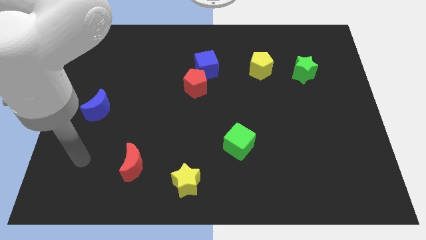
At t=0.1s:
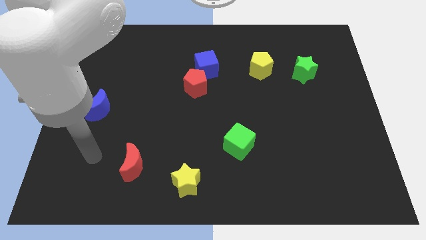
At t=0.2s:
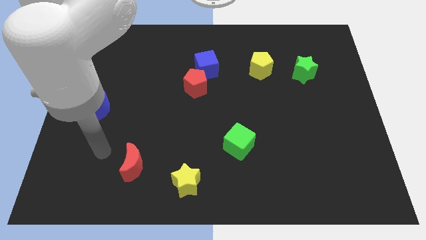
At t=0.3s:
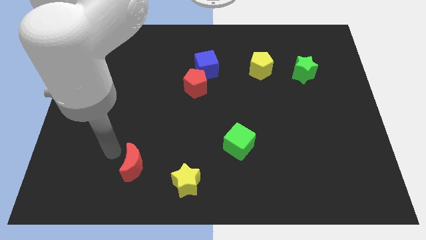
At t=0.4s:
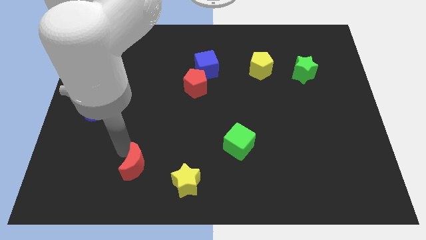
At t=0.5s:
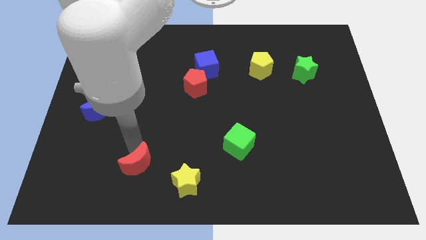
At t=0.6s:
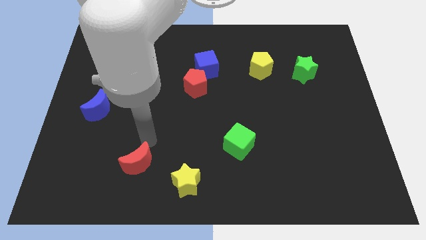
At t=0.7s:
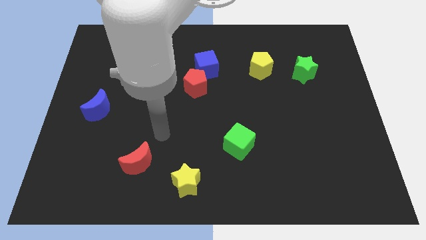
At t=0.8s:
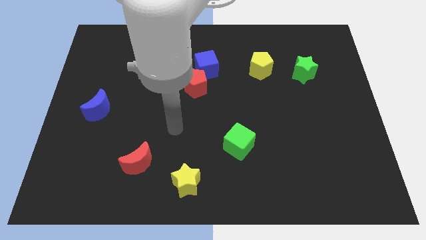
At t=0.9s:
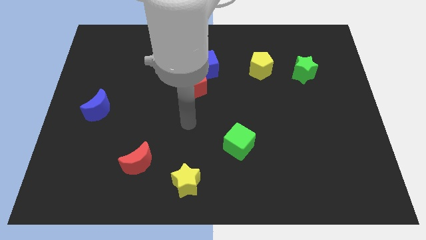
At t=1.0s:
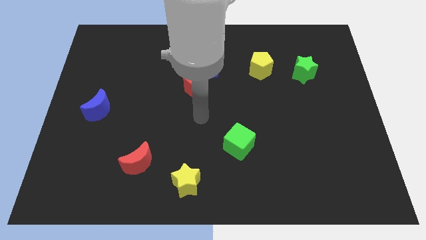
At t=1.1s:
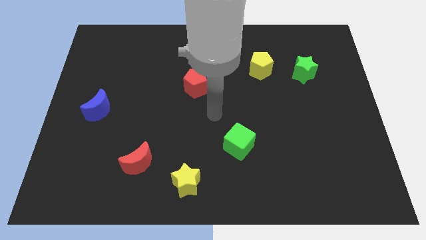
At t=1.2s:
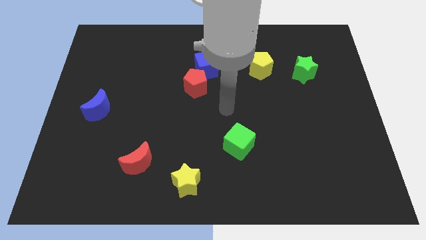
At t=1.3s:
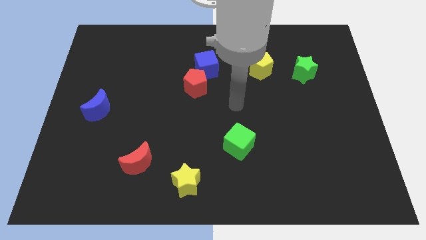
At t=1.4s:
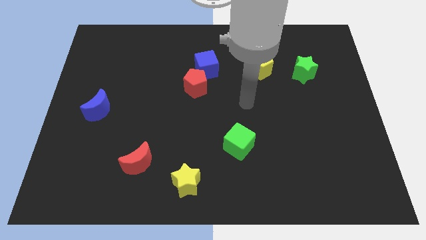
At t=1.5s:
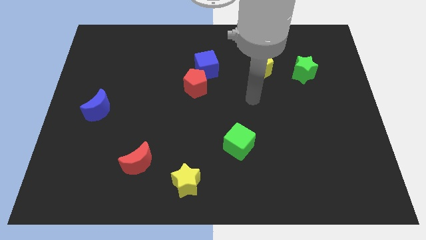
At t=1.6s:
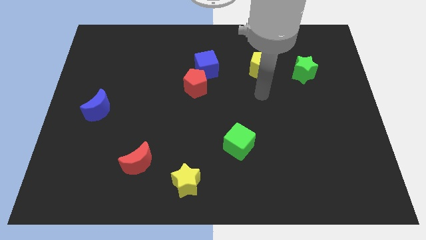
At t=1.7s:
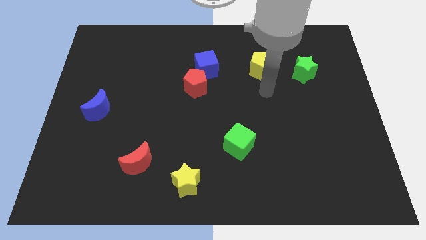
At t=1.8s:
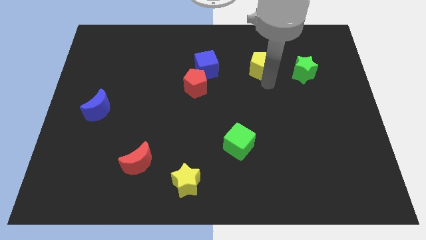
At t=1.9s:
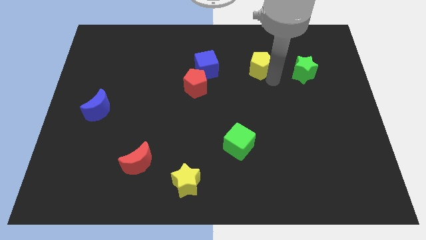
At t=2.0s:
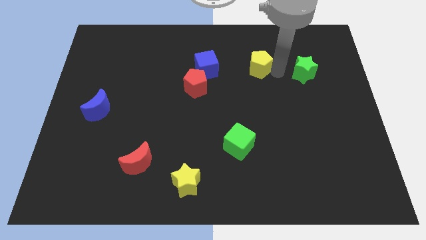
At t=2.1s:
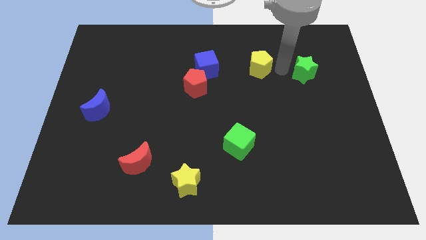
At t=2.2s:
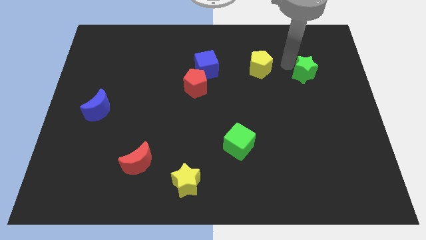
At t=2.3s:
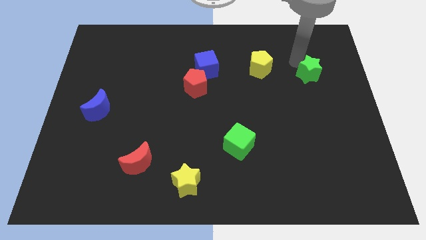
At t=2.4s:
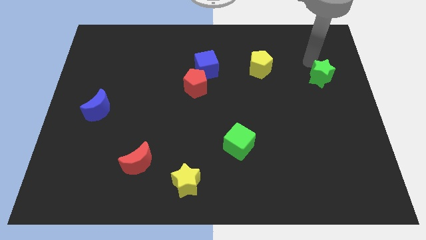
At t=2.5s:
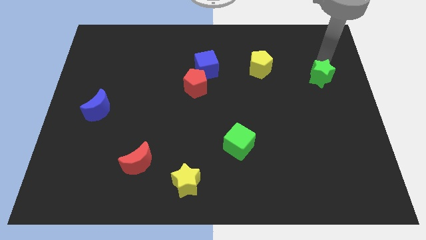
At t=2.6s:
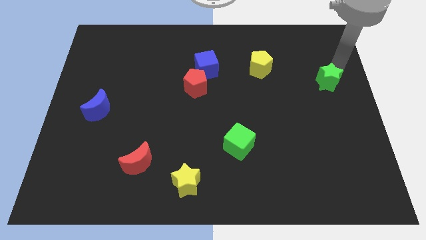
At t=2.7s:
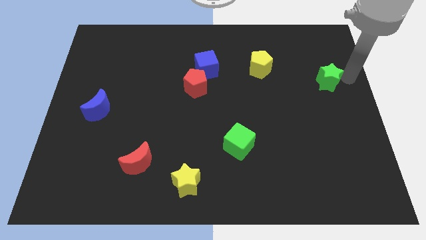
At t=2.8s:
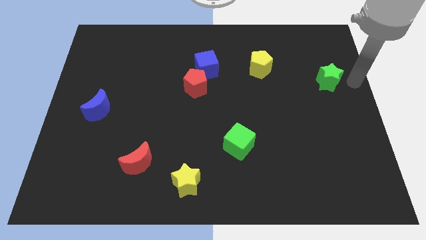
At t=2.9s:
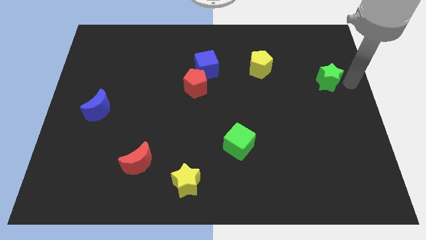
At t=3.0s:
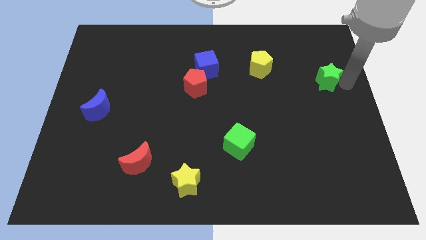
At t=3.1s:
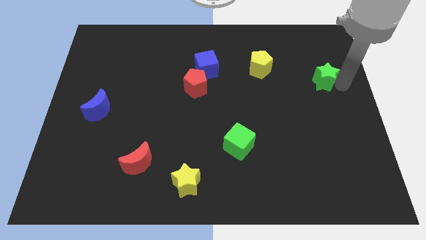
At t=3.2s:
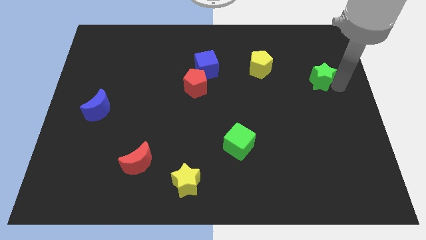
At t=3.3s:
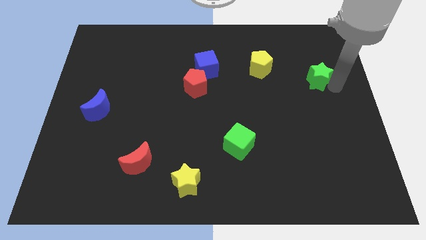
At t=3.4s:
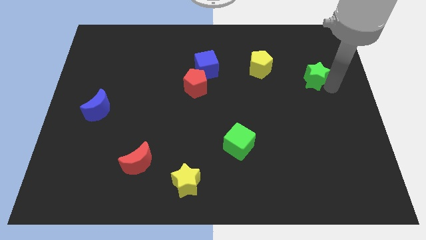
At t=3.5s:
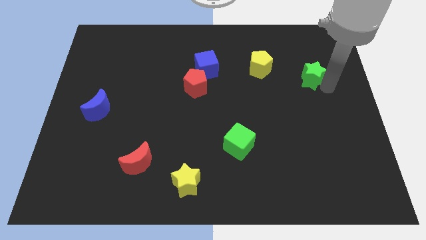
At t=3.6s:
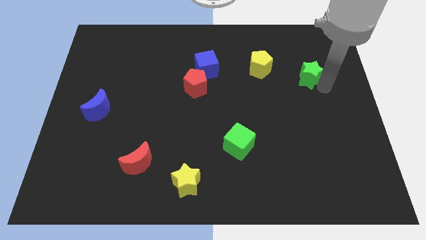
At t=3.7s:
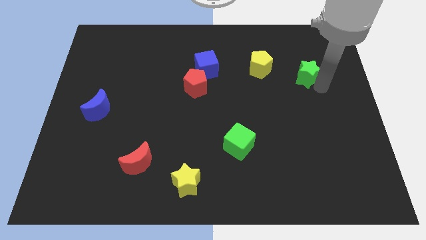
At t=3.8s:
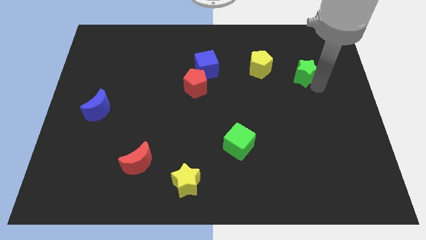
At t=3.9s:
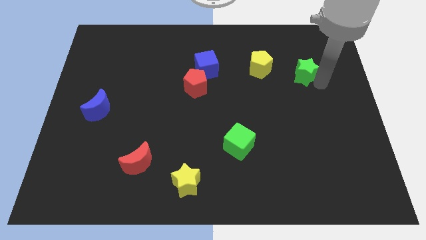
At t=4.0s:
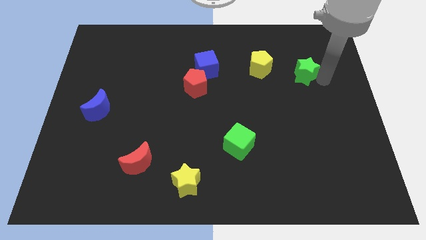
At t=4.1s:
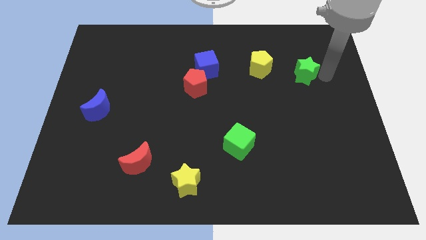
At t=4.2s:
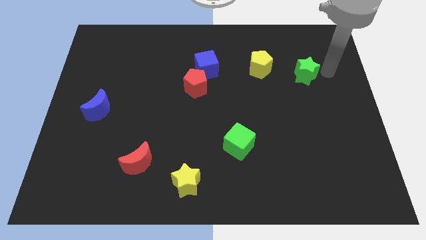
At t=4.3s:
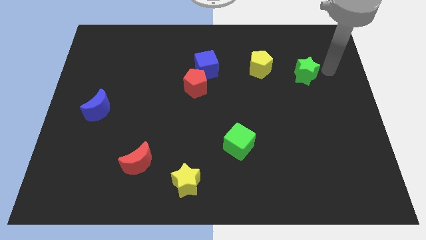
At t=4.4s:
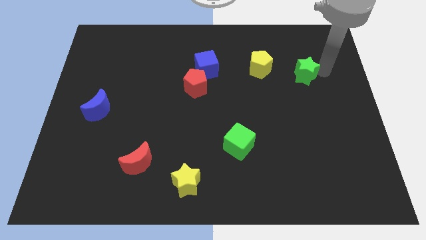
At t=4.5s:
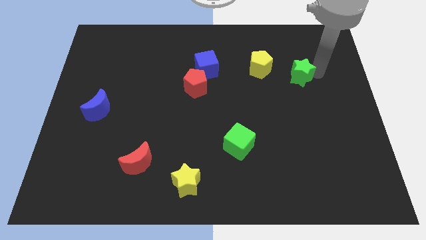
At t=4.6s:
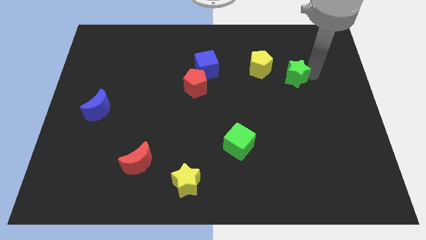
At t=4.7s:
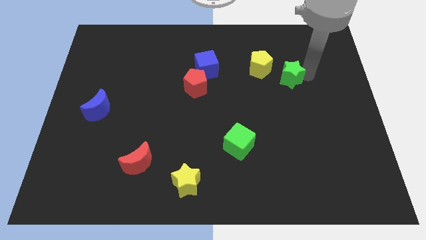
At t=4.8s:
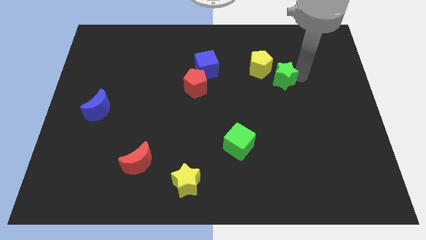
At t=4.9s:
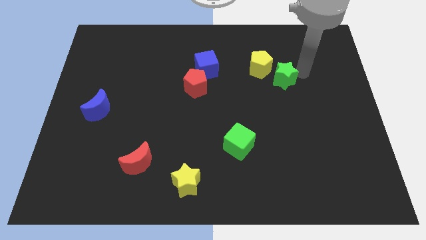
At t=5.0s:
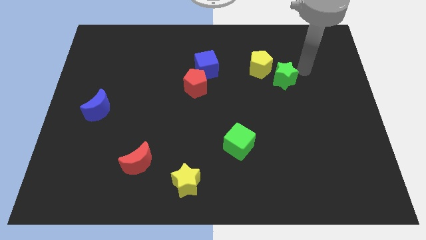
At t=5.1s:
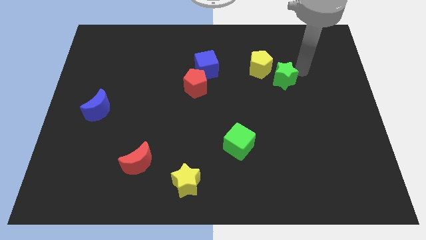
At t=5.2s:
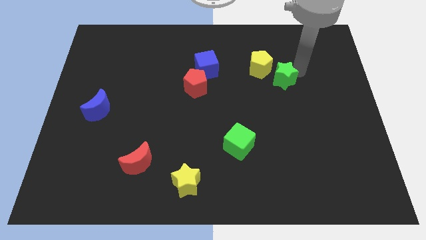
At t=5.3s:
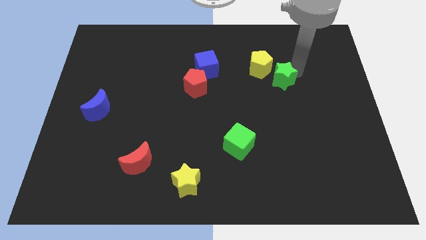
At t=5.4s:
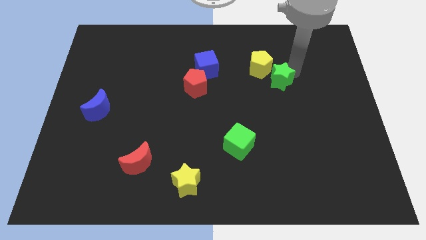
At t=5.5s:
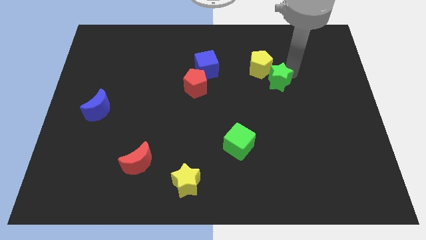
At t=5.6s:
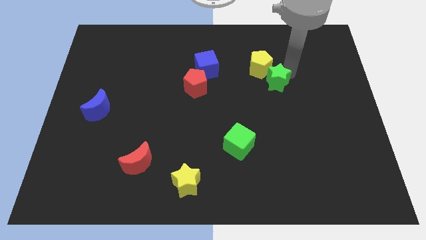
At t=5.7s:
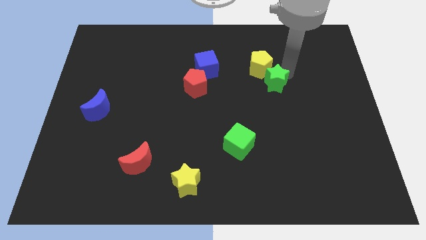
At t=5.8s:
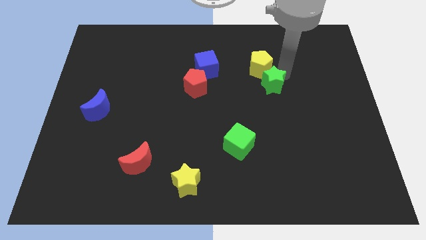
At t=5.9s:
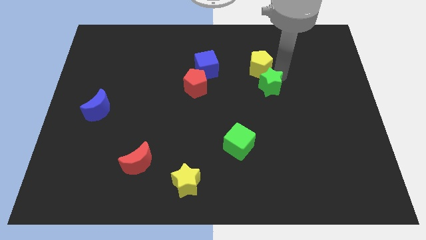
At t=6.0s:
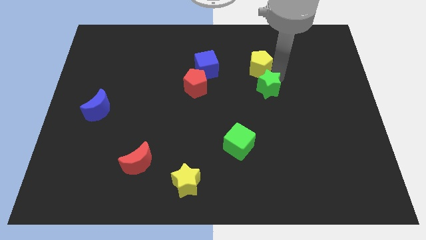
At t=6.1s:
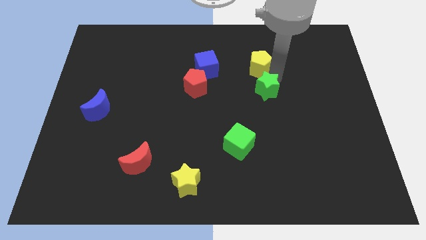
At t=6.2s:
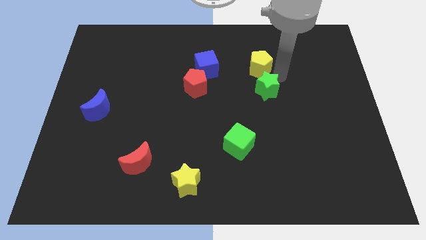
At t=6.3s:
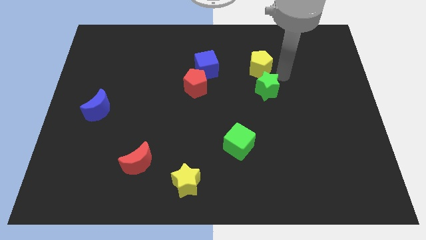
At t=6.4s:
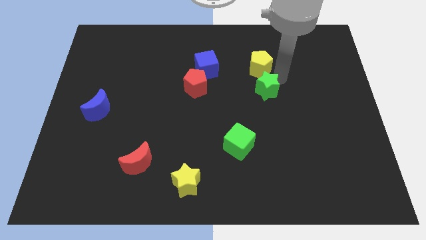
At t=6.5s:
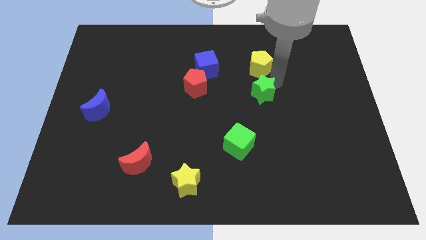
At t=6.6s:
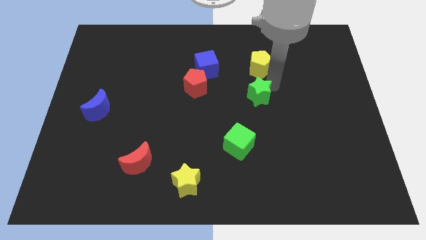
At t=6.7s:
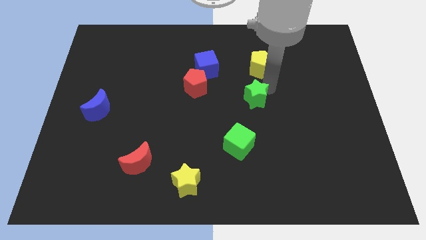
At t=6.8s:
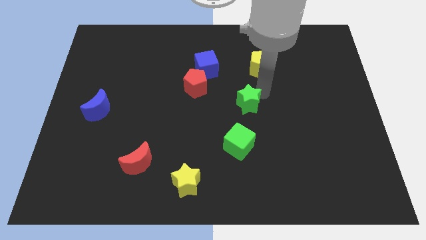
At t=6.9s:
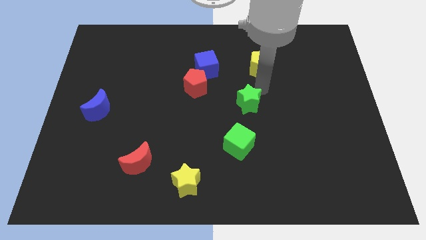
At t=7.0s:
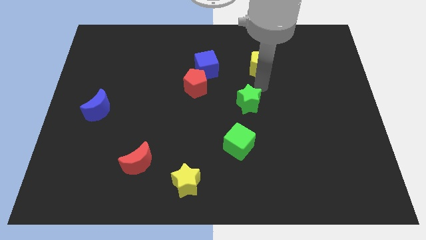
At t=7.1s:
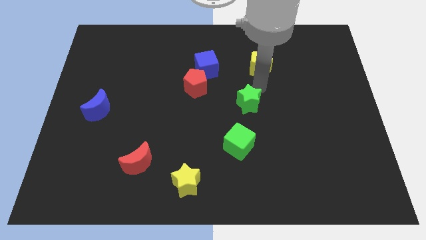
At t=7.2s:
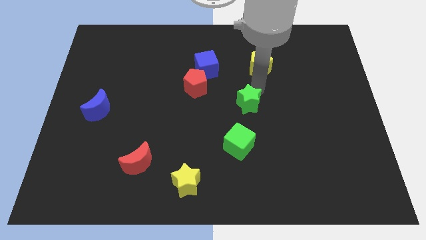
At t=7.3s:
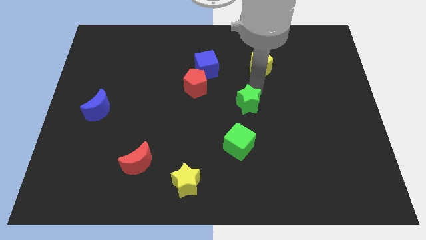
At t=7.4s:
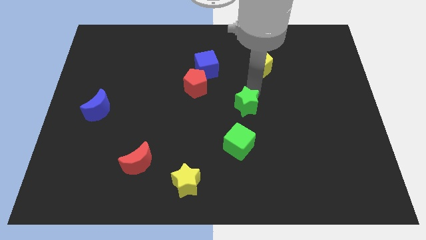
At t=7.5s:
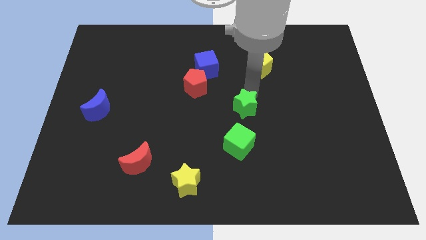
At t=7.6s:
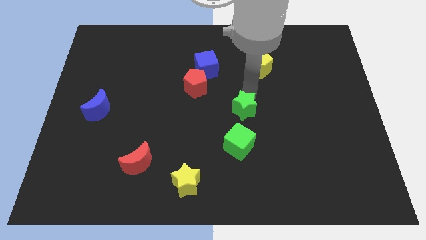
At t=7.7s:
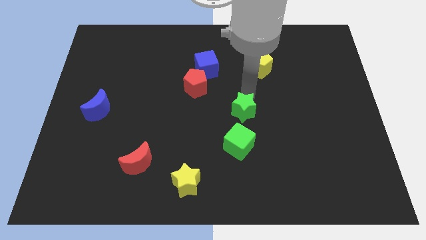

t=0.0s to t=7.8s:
push the green star diagonally downwards and left

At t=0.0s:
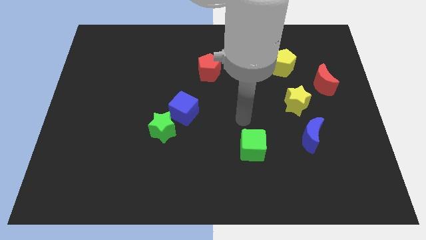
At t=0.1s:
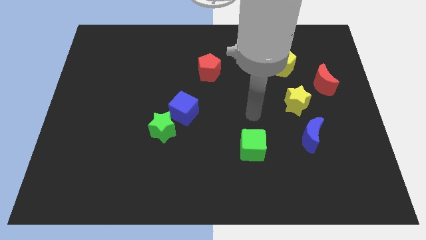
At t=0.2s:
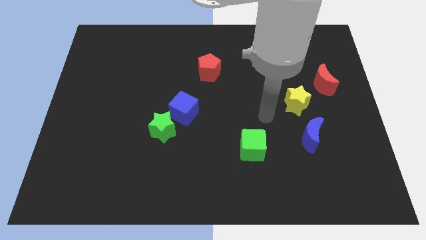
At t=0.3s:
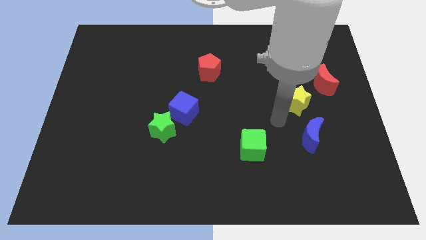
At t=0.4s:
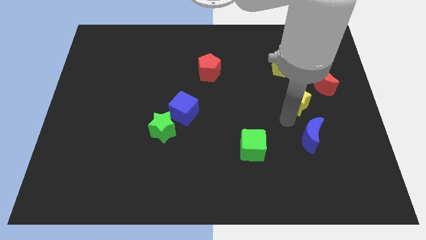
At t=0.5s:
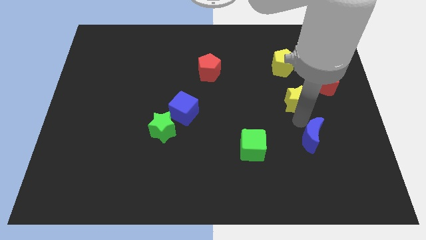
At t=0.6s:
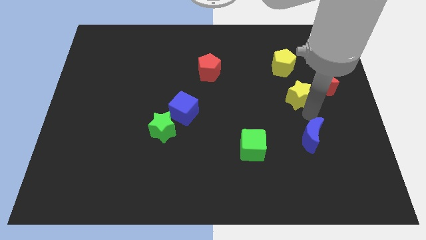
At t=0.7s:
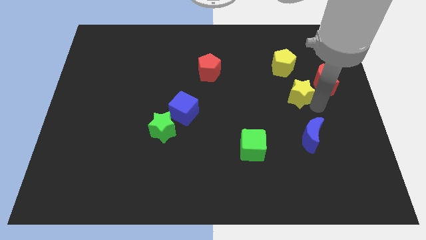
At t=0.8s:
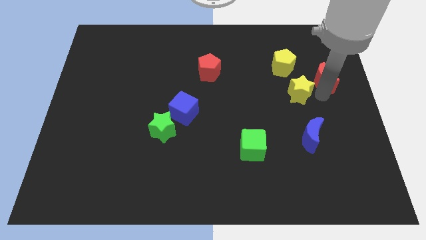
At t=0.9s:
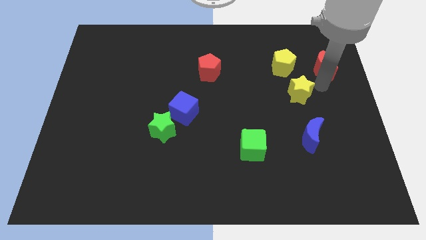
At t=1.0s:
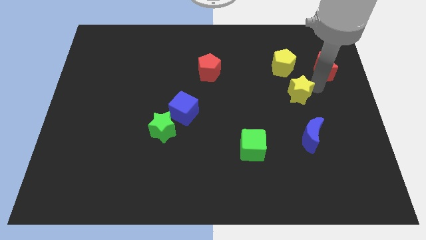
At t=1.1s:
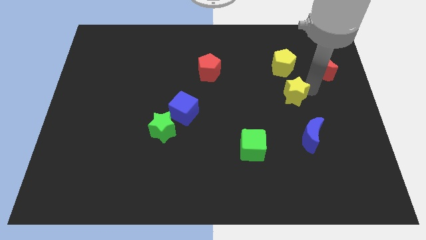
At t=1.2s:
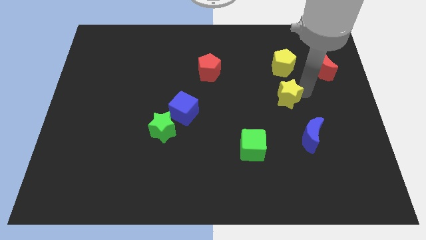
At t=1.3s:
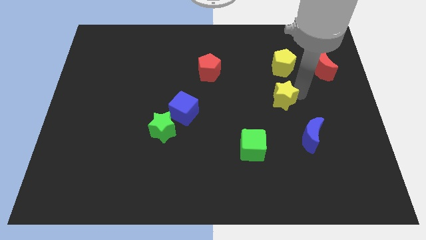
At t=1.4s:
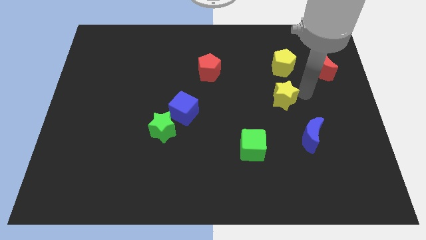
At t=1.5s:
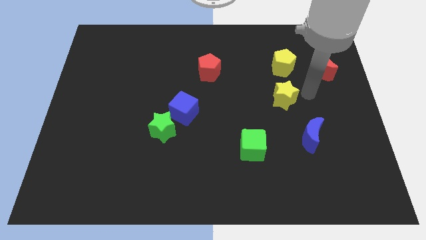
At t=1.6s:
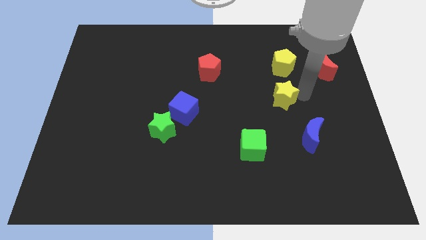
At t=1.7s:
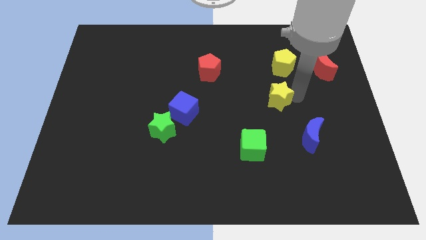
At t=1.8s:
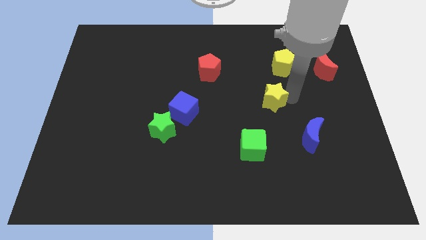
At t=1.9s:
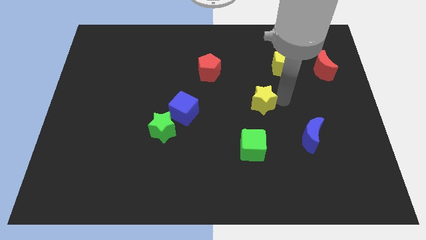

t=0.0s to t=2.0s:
slightly slide the yellow star to the left
